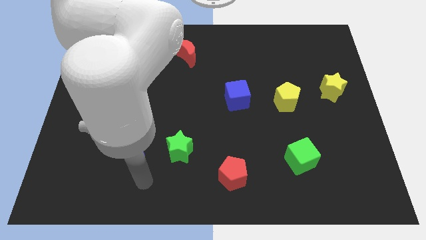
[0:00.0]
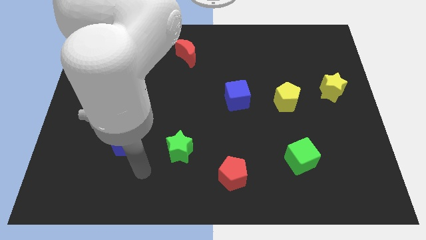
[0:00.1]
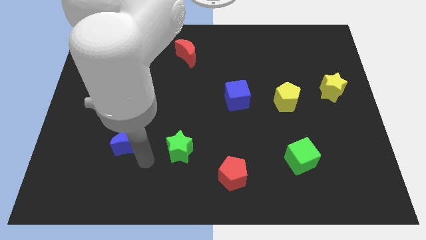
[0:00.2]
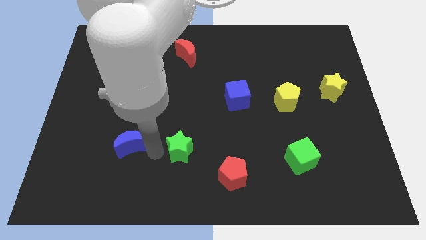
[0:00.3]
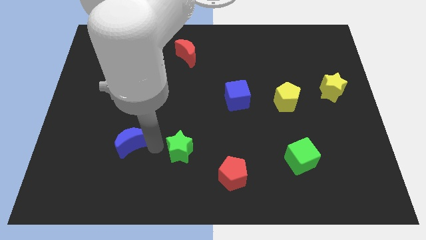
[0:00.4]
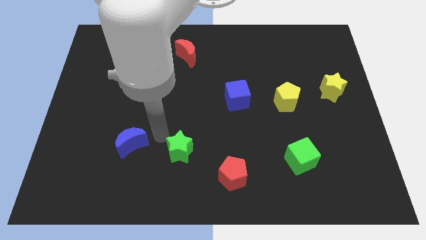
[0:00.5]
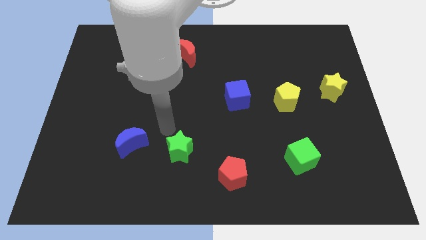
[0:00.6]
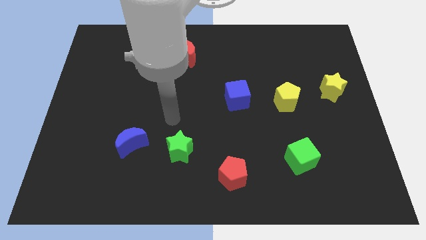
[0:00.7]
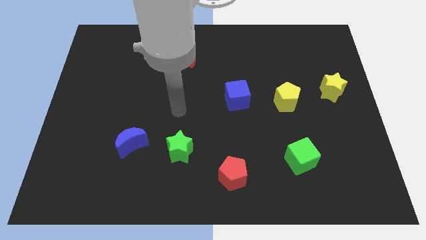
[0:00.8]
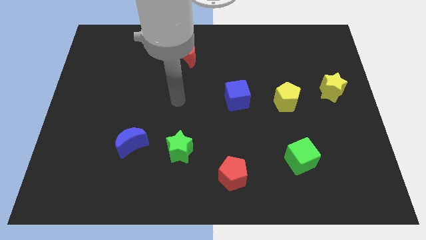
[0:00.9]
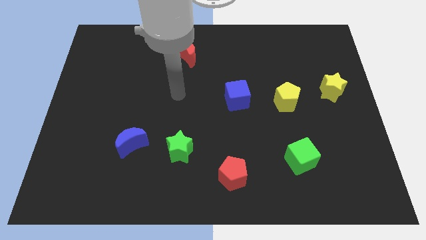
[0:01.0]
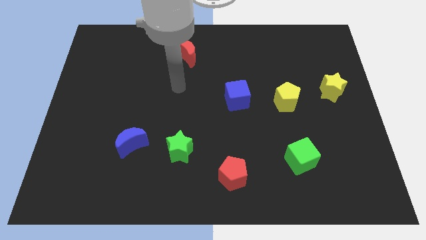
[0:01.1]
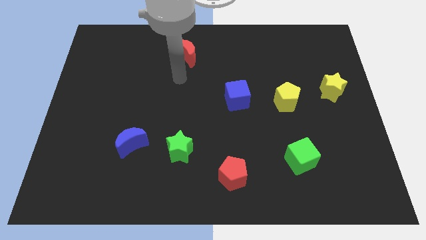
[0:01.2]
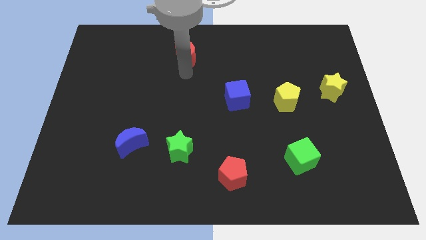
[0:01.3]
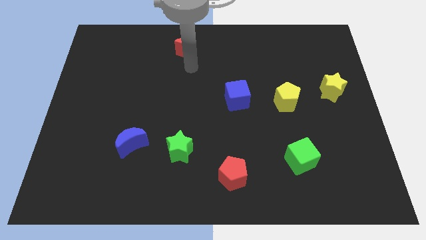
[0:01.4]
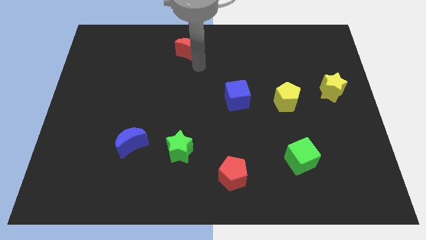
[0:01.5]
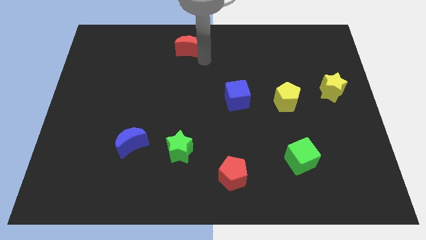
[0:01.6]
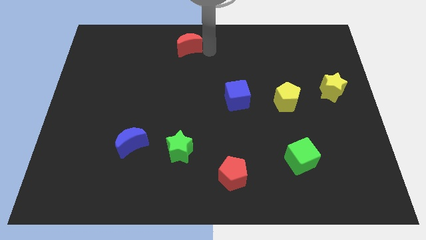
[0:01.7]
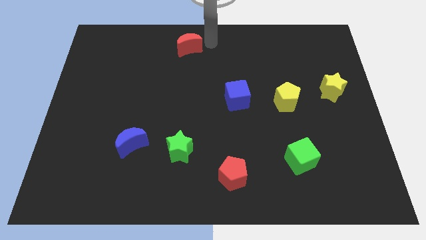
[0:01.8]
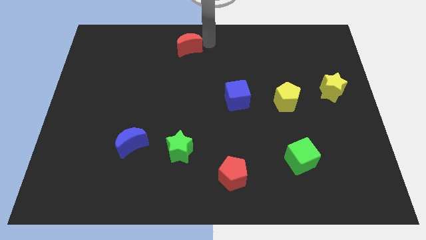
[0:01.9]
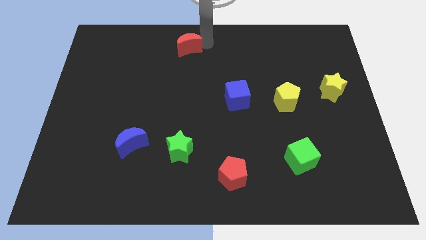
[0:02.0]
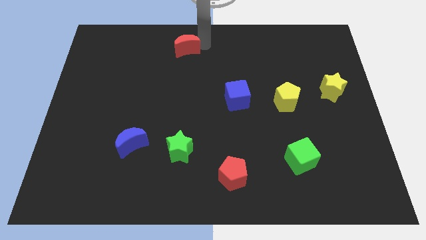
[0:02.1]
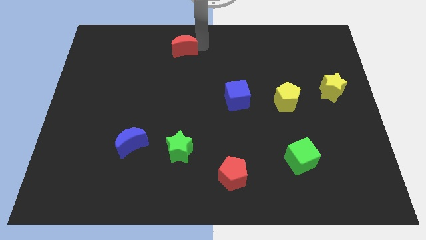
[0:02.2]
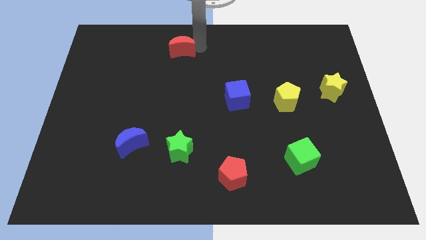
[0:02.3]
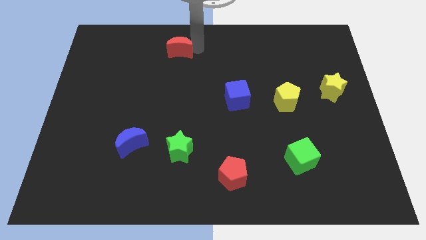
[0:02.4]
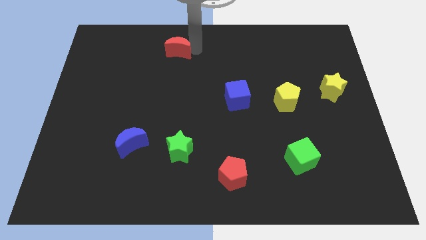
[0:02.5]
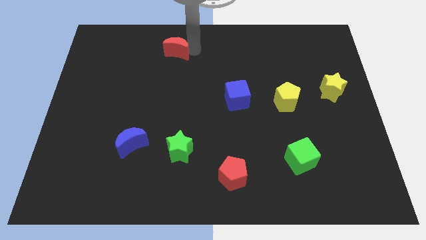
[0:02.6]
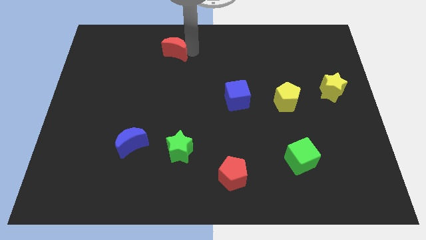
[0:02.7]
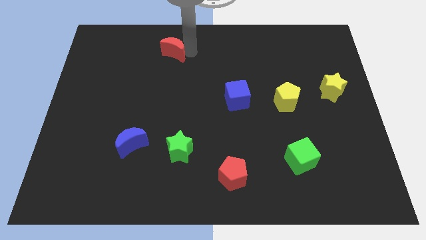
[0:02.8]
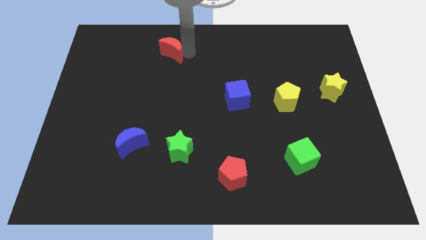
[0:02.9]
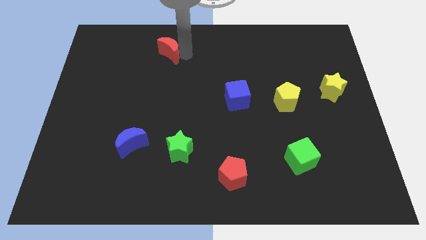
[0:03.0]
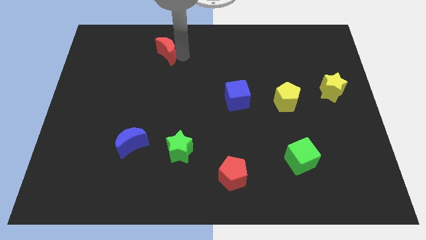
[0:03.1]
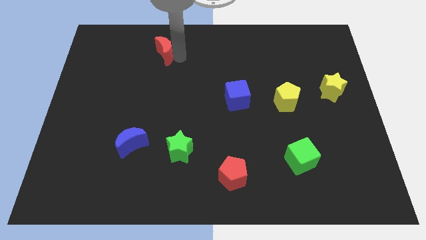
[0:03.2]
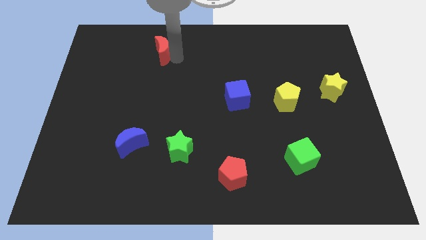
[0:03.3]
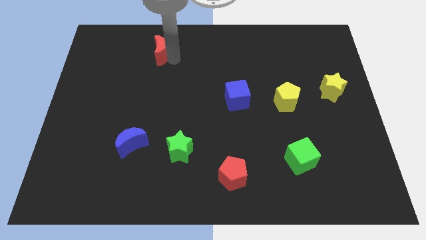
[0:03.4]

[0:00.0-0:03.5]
move the red moon a little to the left

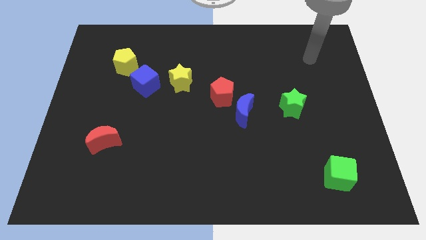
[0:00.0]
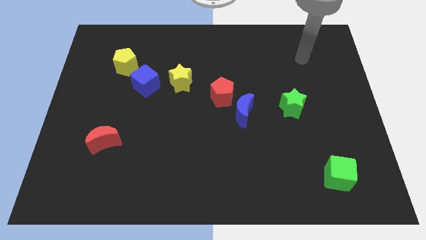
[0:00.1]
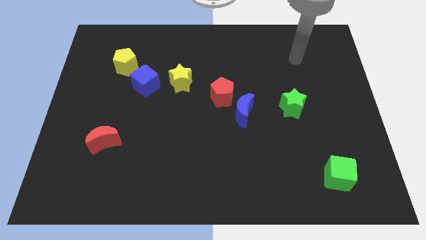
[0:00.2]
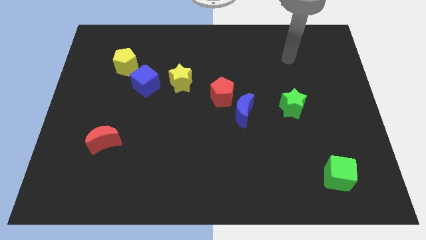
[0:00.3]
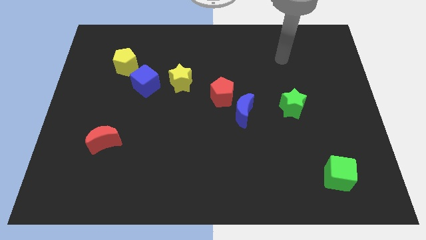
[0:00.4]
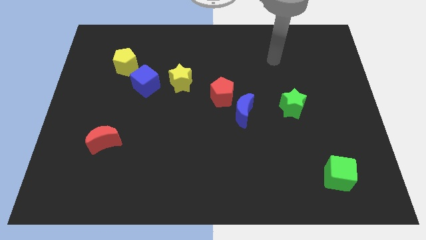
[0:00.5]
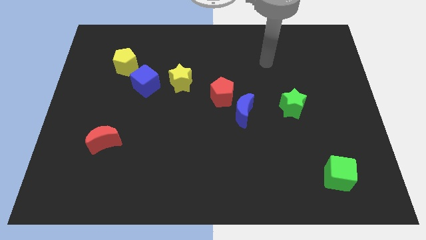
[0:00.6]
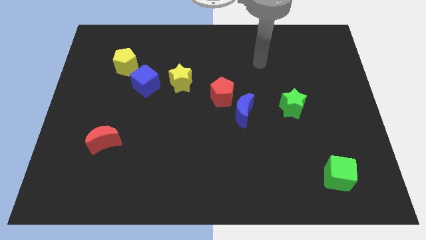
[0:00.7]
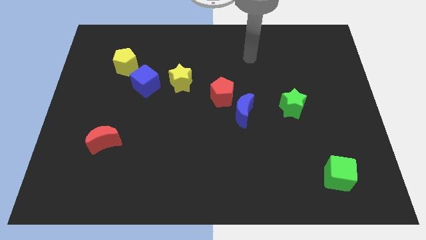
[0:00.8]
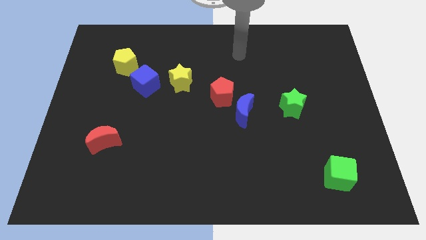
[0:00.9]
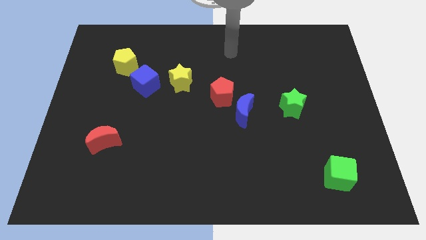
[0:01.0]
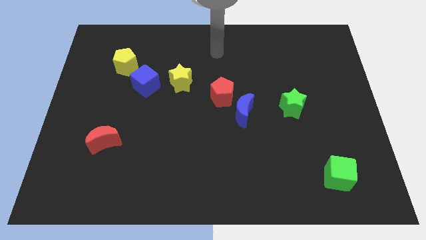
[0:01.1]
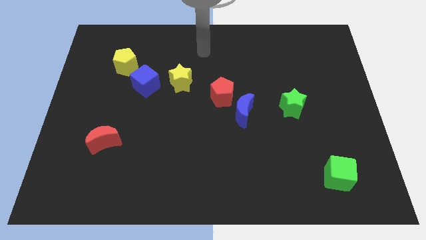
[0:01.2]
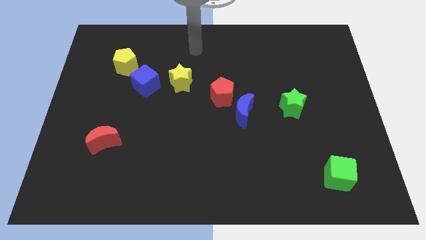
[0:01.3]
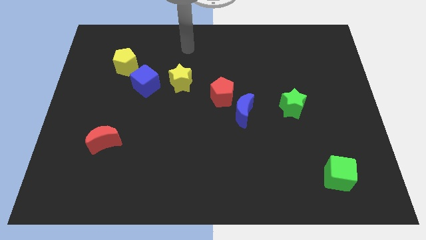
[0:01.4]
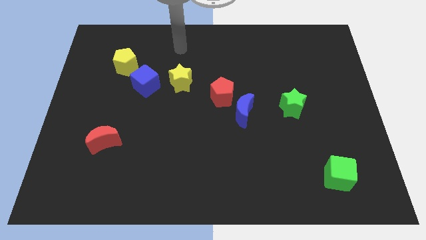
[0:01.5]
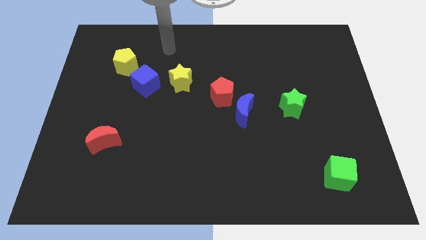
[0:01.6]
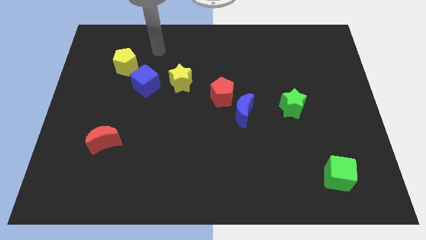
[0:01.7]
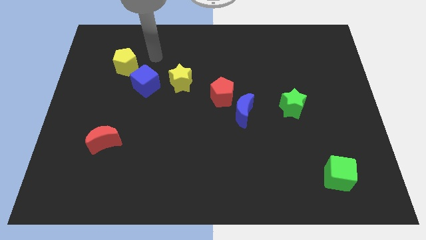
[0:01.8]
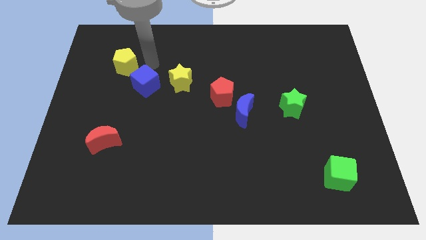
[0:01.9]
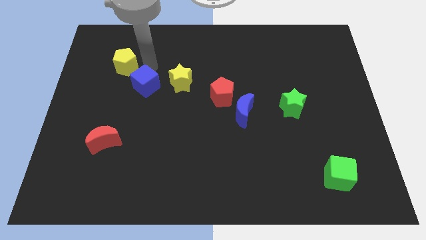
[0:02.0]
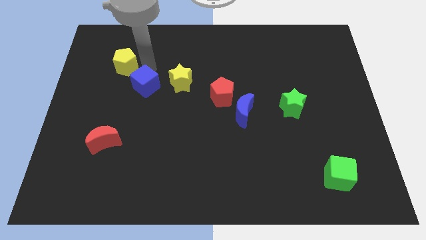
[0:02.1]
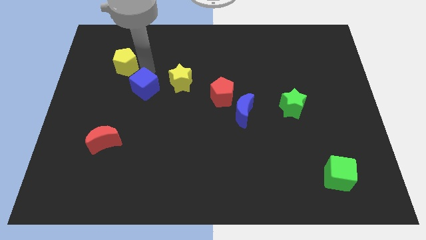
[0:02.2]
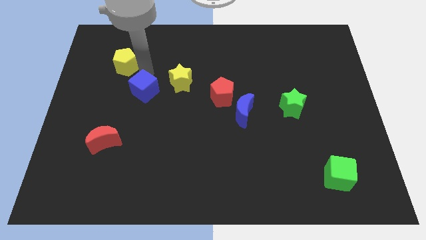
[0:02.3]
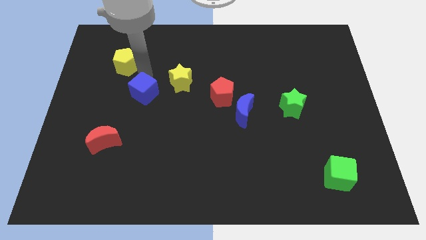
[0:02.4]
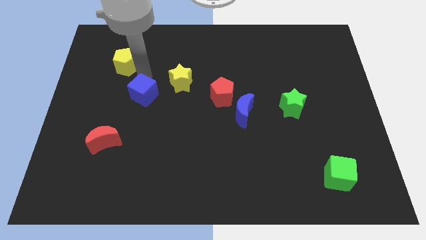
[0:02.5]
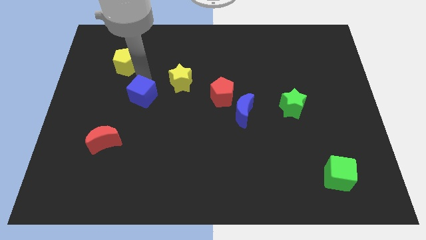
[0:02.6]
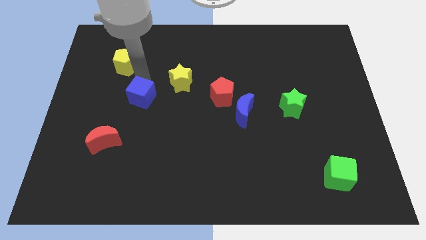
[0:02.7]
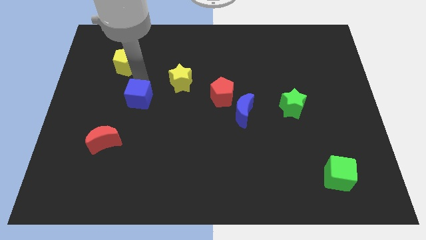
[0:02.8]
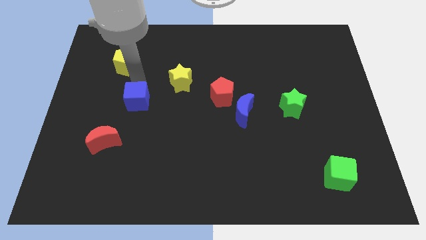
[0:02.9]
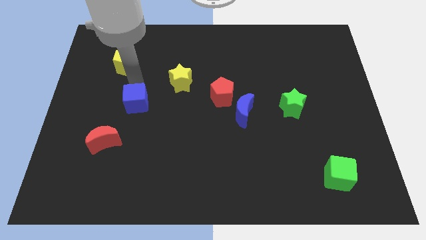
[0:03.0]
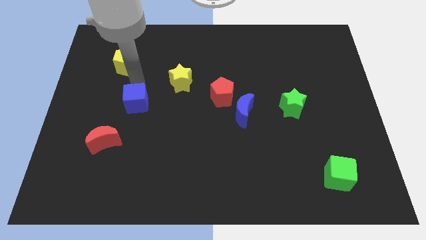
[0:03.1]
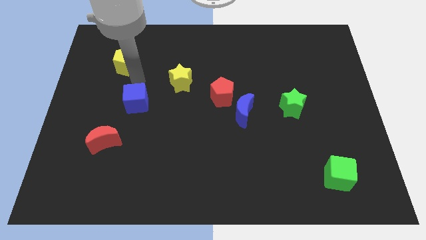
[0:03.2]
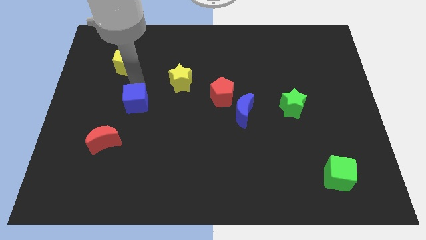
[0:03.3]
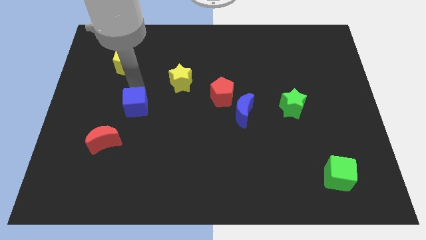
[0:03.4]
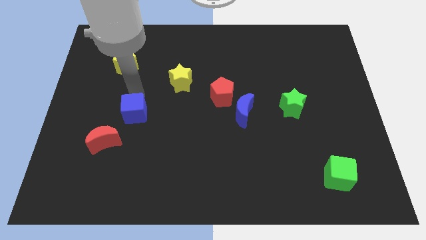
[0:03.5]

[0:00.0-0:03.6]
move the blue cube down a bit

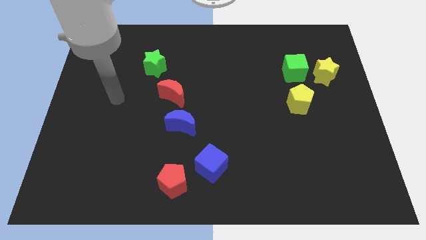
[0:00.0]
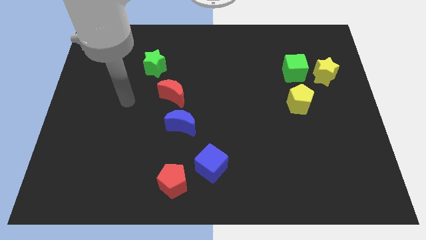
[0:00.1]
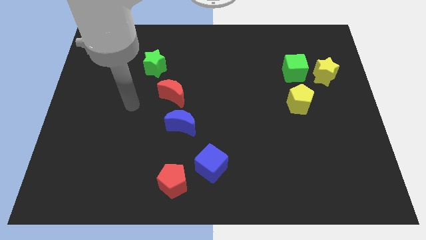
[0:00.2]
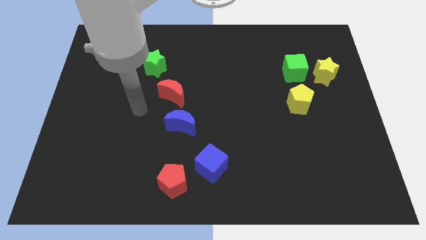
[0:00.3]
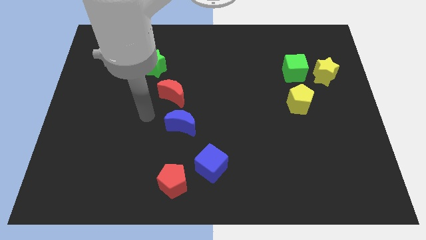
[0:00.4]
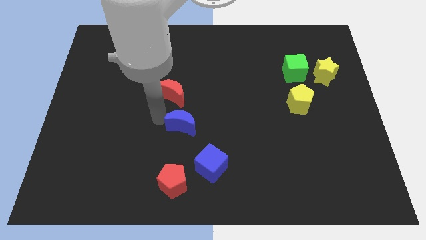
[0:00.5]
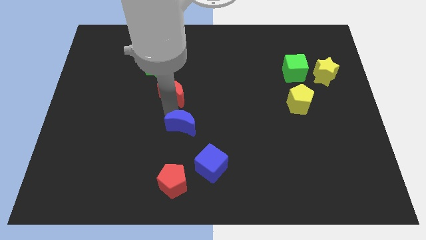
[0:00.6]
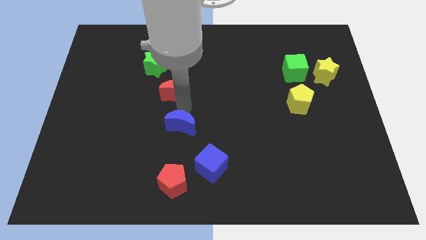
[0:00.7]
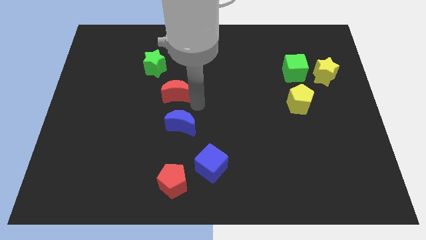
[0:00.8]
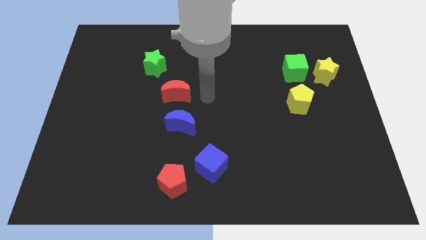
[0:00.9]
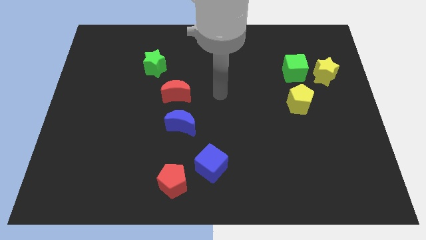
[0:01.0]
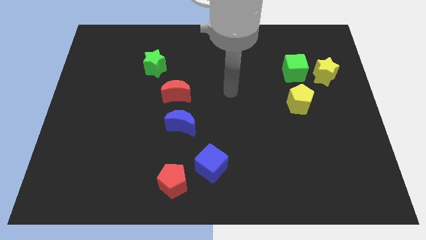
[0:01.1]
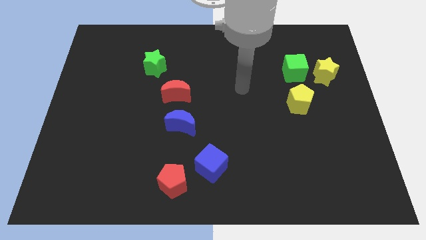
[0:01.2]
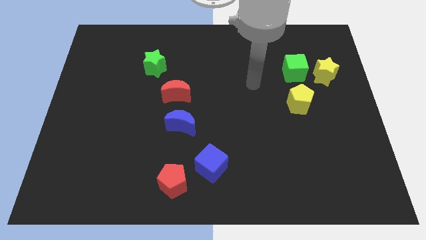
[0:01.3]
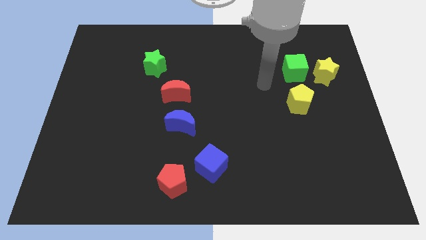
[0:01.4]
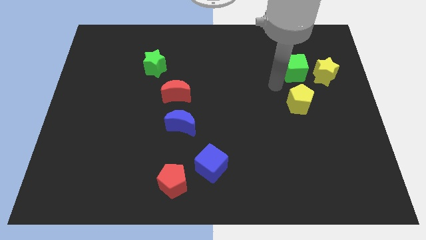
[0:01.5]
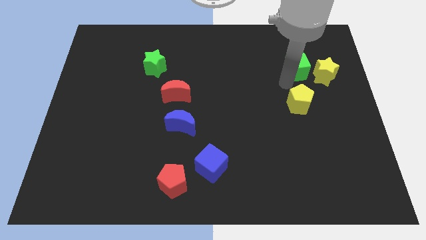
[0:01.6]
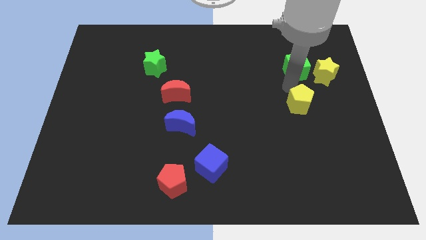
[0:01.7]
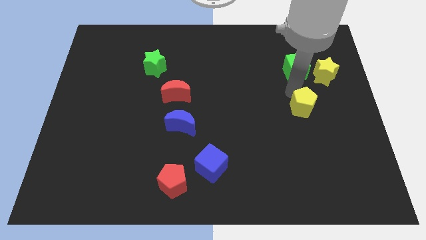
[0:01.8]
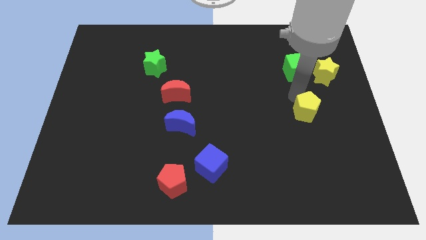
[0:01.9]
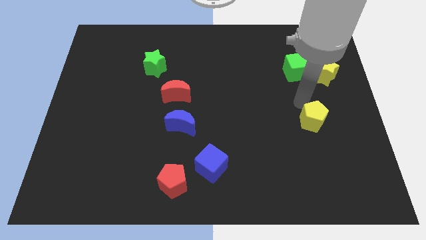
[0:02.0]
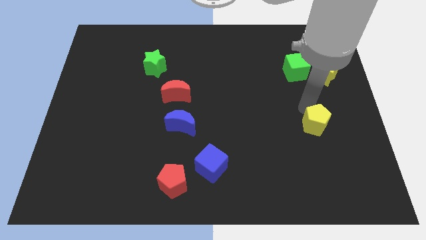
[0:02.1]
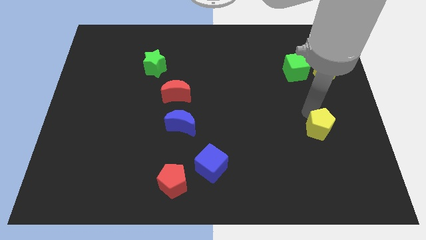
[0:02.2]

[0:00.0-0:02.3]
push the yellow pentagon downwards a little bit
